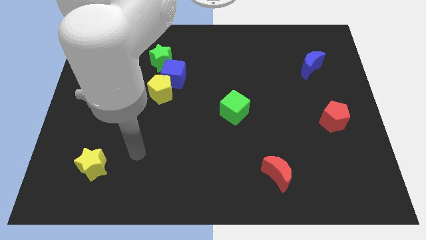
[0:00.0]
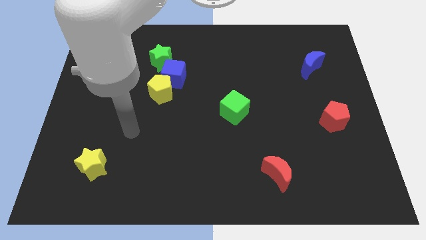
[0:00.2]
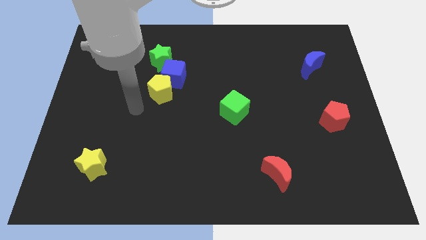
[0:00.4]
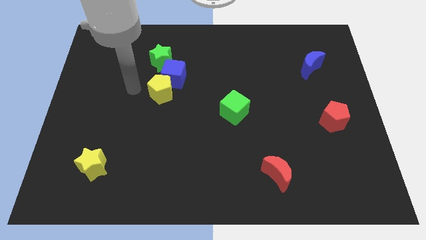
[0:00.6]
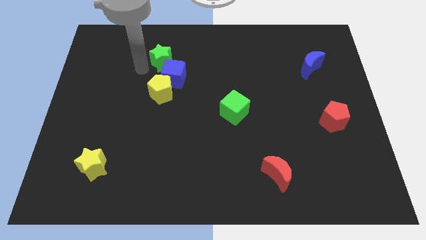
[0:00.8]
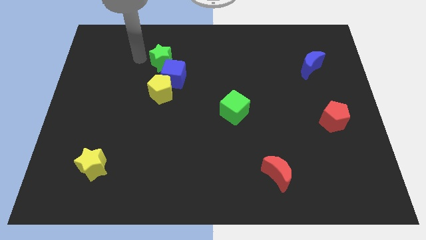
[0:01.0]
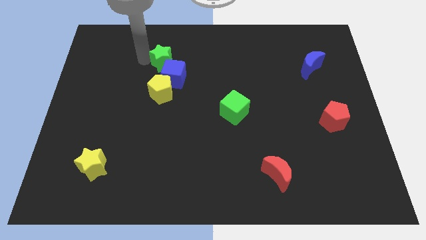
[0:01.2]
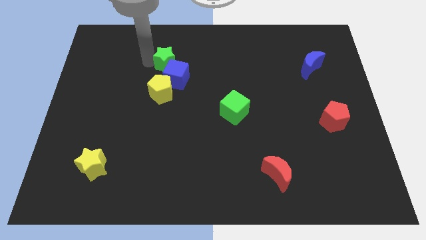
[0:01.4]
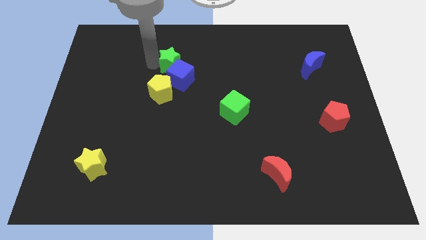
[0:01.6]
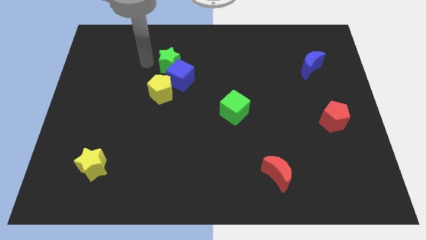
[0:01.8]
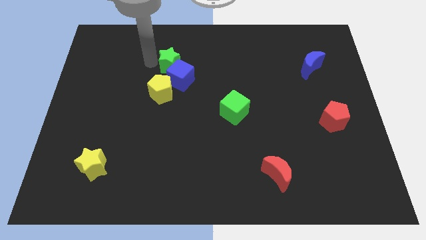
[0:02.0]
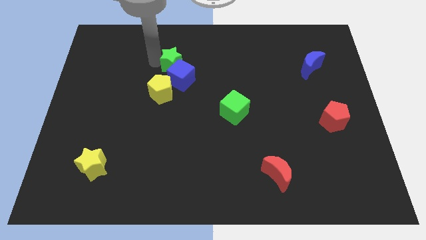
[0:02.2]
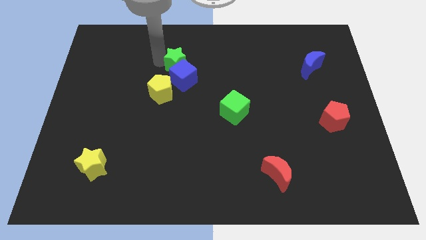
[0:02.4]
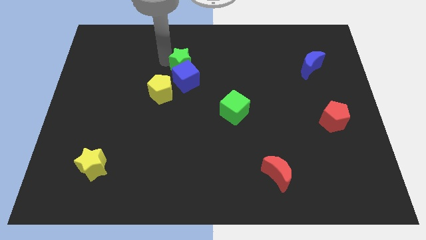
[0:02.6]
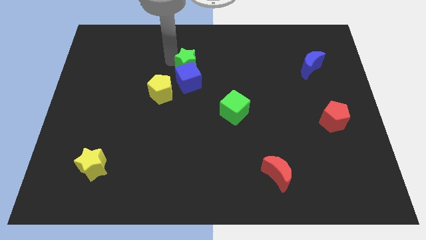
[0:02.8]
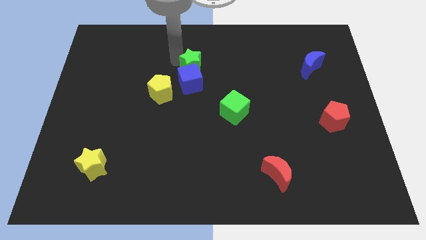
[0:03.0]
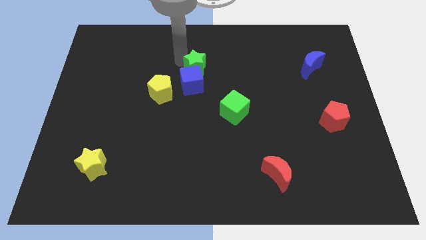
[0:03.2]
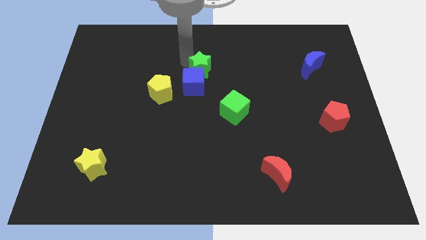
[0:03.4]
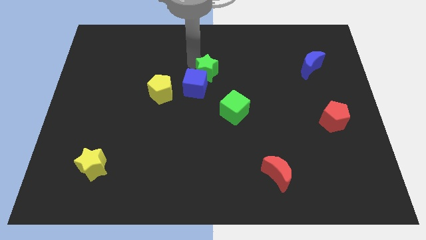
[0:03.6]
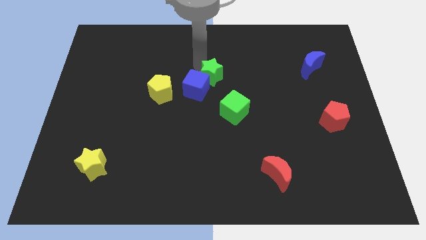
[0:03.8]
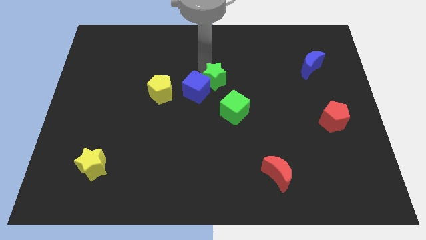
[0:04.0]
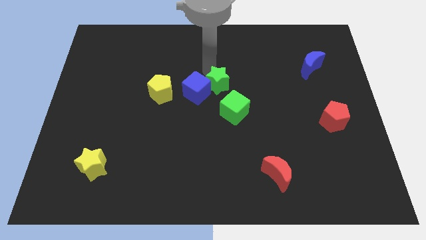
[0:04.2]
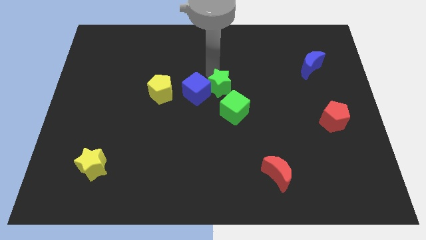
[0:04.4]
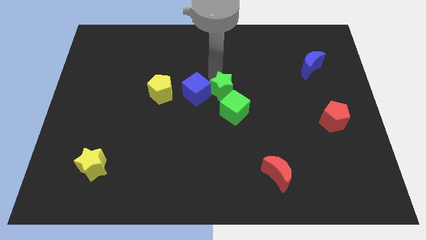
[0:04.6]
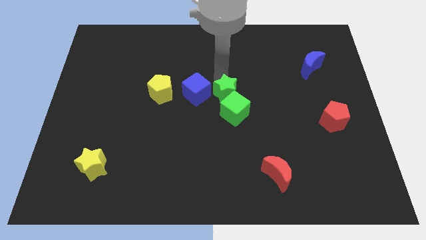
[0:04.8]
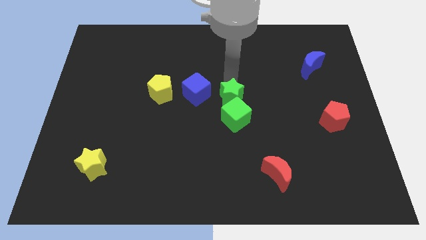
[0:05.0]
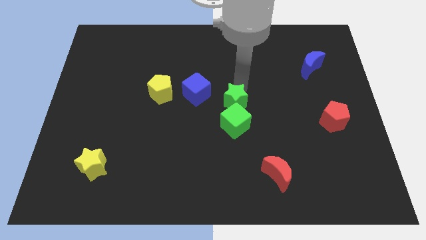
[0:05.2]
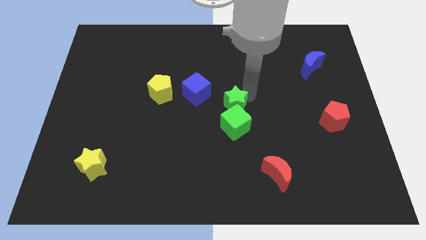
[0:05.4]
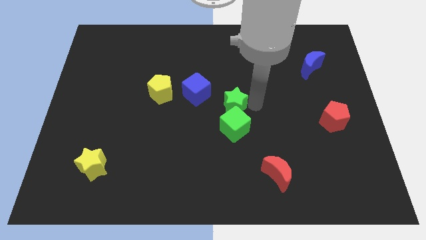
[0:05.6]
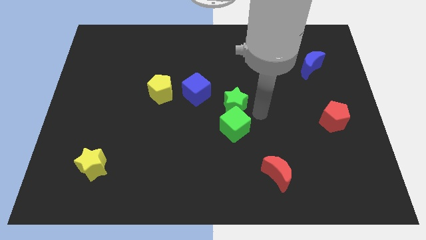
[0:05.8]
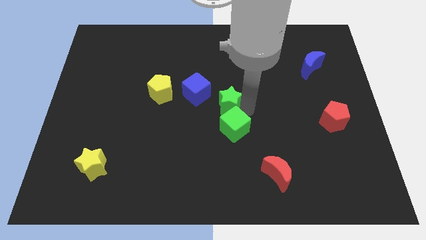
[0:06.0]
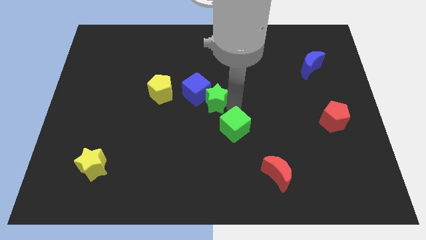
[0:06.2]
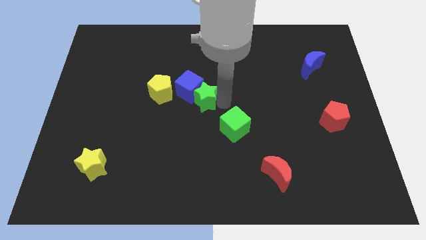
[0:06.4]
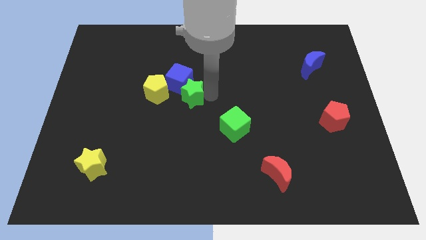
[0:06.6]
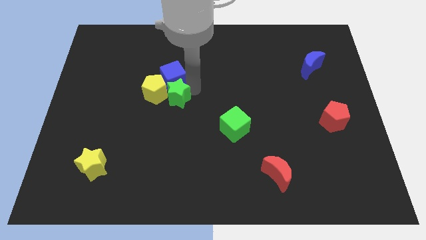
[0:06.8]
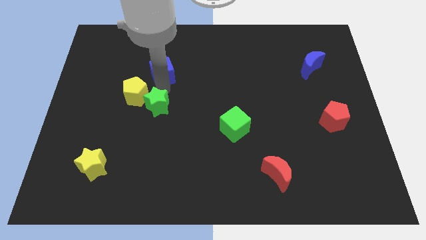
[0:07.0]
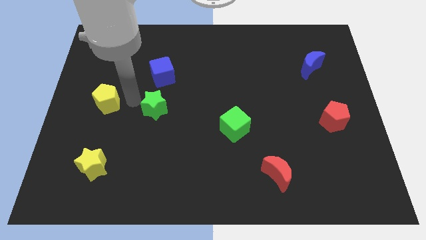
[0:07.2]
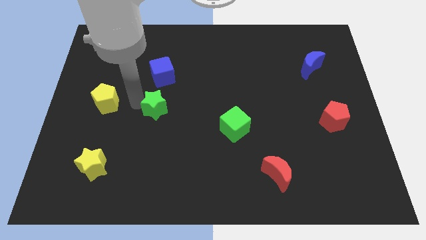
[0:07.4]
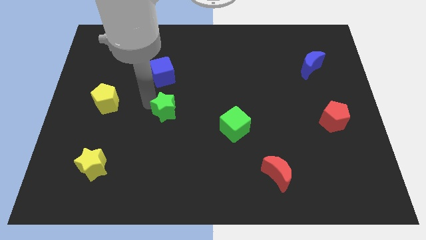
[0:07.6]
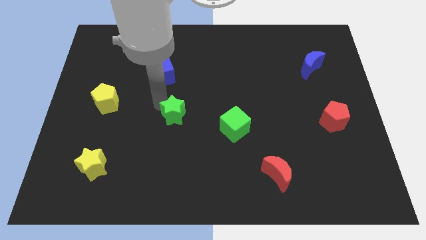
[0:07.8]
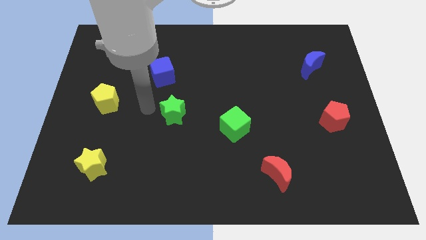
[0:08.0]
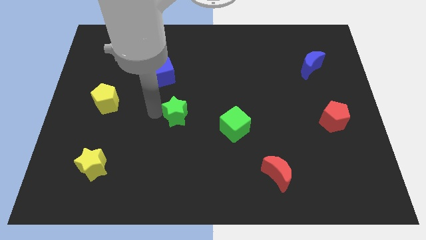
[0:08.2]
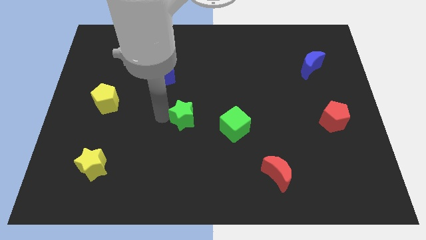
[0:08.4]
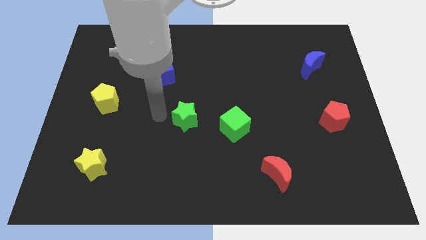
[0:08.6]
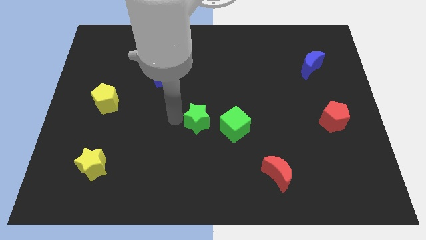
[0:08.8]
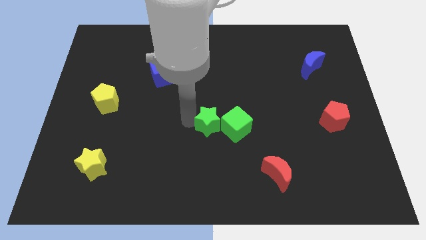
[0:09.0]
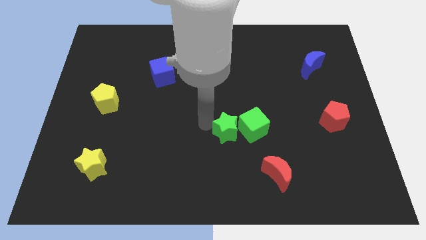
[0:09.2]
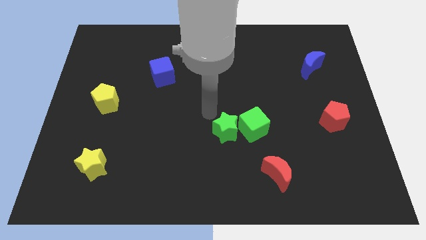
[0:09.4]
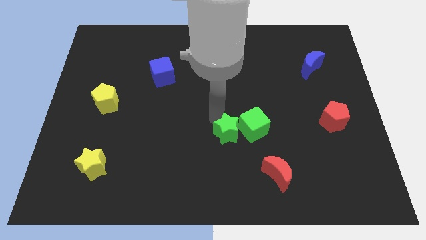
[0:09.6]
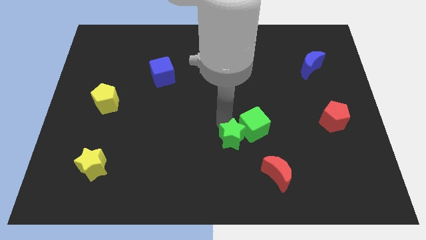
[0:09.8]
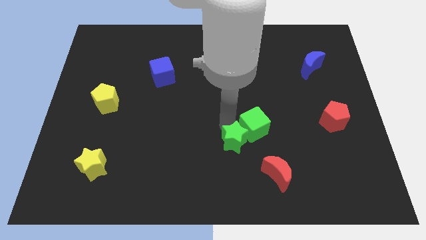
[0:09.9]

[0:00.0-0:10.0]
move the green star below the green cube

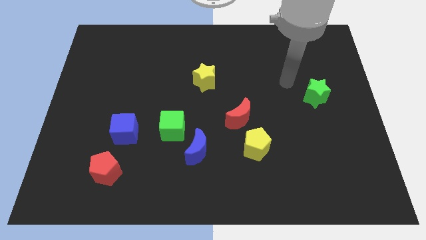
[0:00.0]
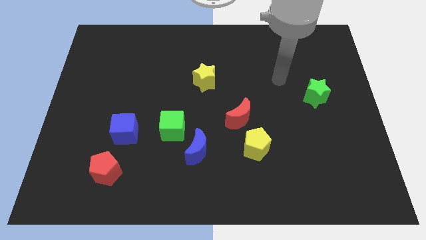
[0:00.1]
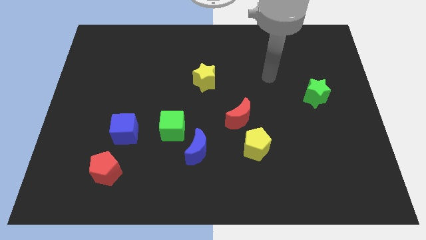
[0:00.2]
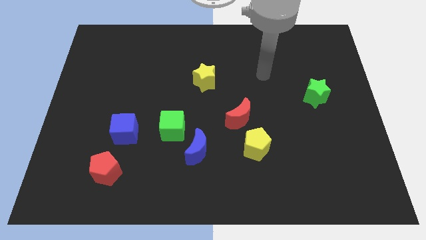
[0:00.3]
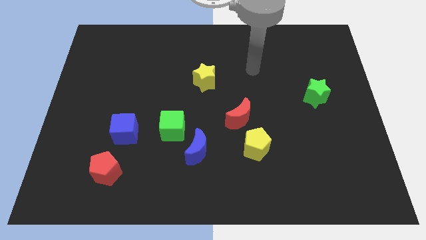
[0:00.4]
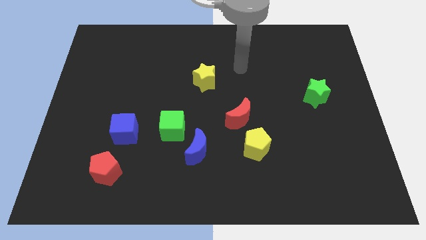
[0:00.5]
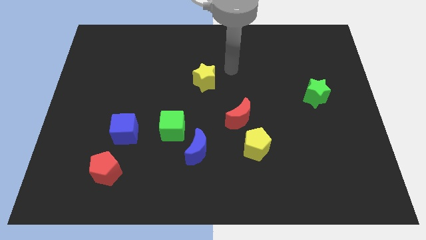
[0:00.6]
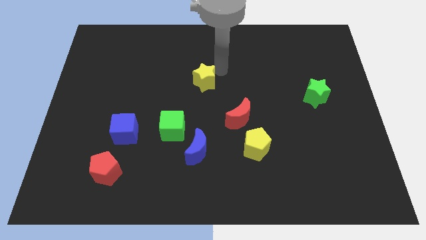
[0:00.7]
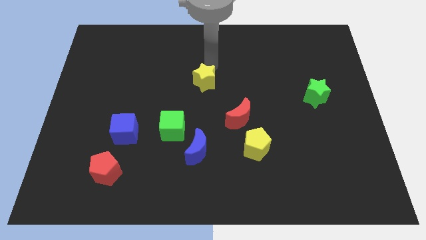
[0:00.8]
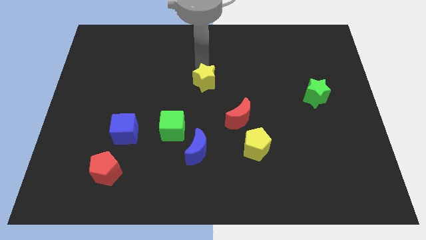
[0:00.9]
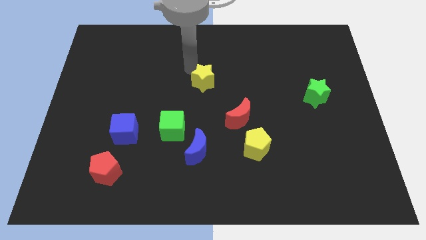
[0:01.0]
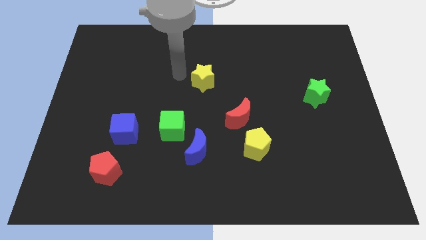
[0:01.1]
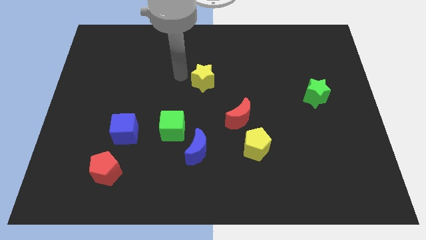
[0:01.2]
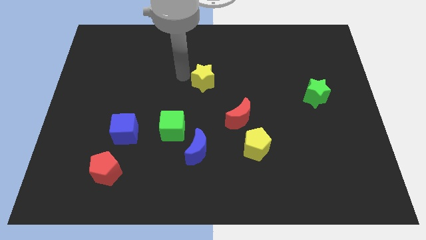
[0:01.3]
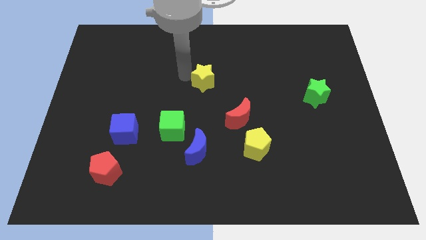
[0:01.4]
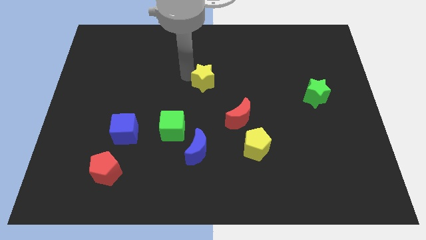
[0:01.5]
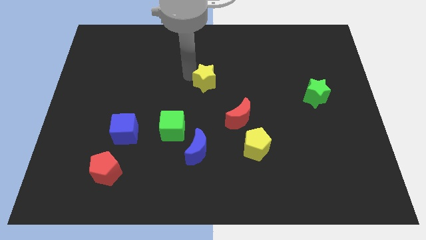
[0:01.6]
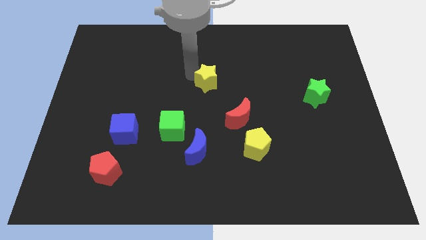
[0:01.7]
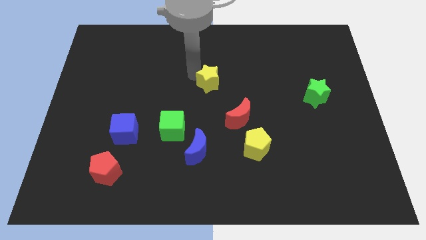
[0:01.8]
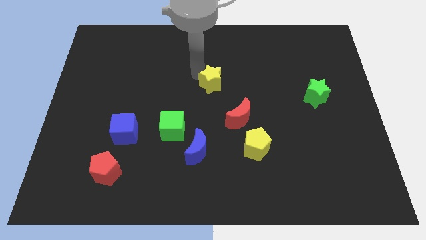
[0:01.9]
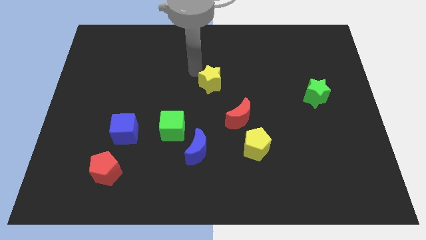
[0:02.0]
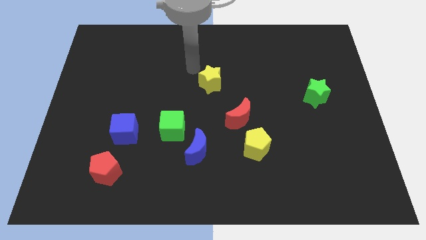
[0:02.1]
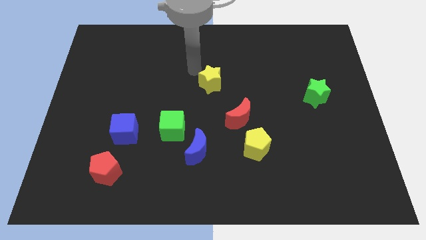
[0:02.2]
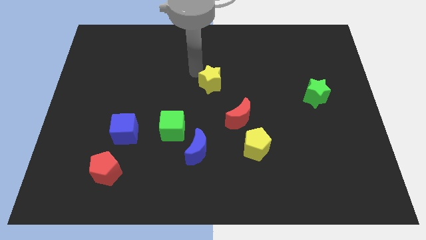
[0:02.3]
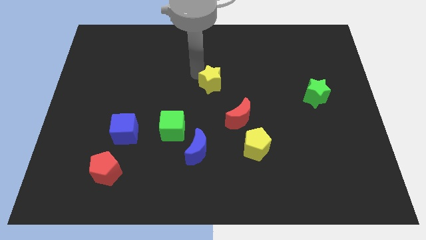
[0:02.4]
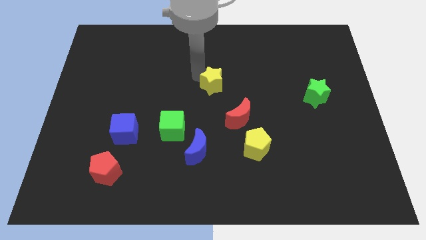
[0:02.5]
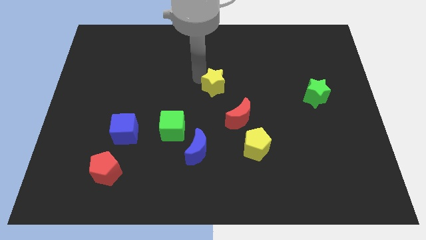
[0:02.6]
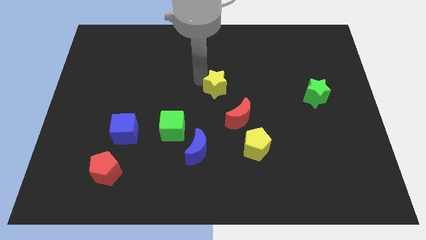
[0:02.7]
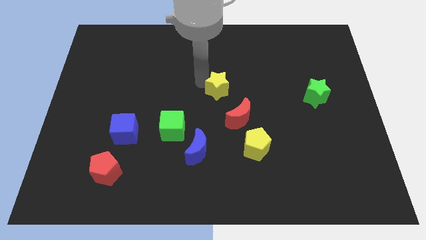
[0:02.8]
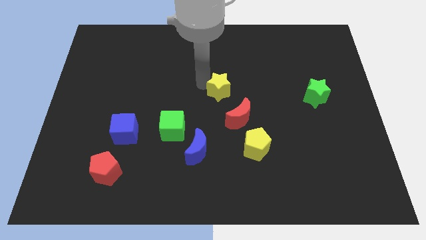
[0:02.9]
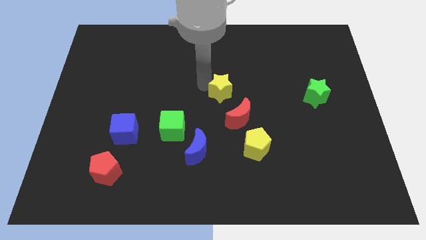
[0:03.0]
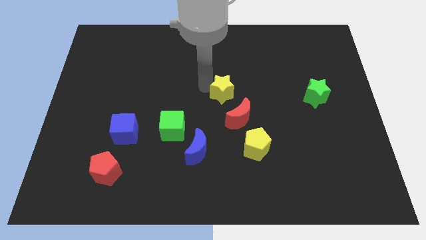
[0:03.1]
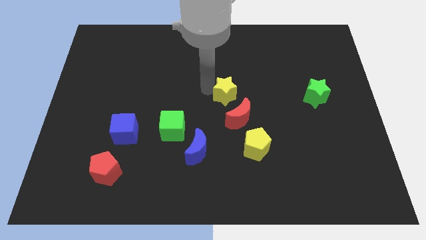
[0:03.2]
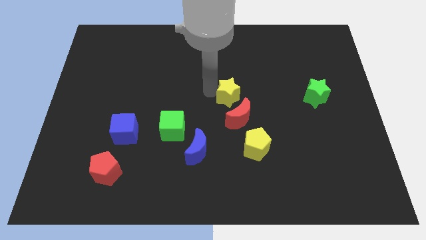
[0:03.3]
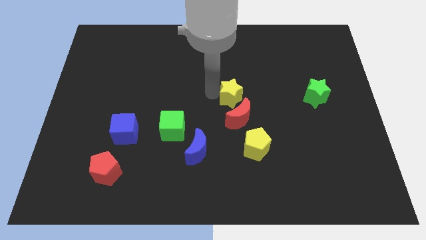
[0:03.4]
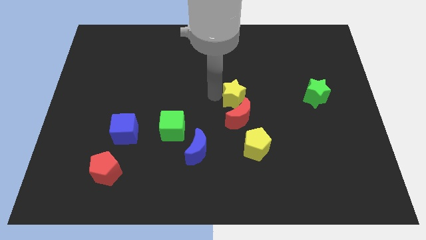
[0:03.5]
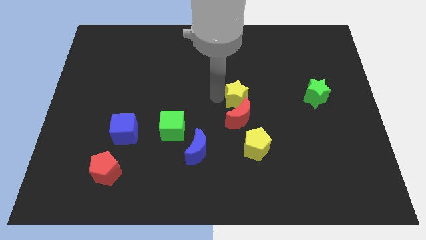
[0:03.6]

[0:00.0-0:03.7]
slide the yellow star to the top of the yellow pentagon
